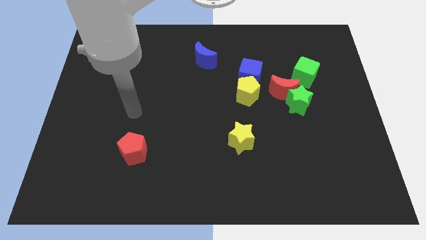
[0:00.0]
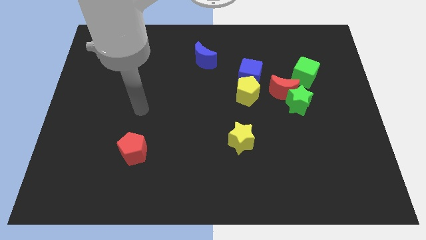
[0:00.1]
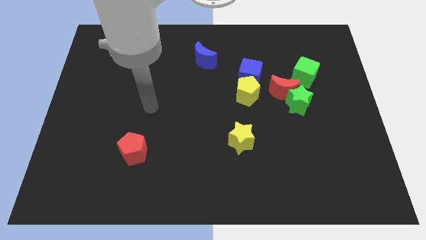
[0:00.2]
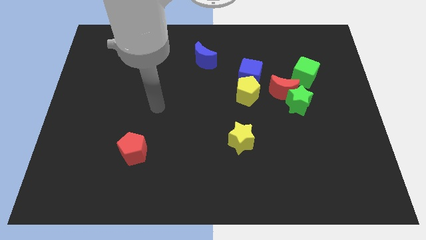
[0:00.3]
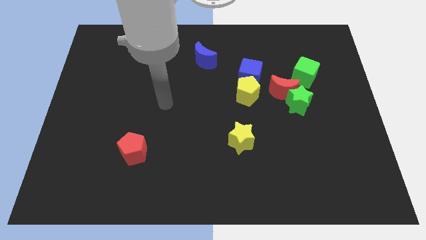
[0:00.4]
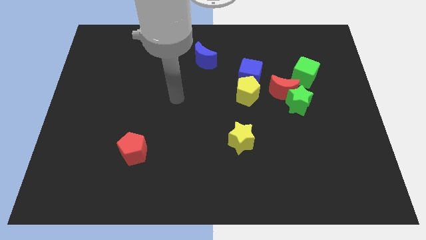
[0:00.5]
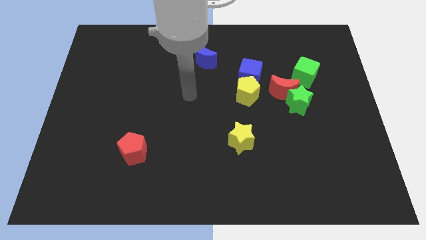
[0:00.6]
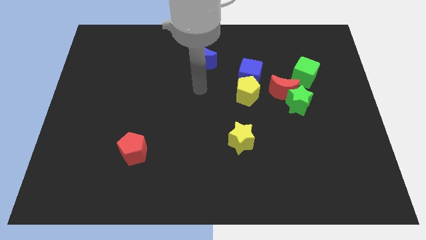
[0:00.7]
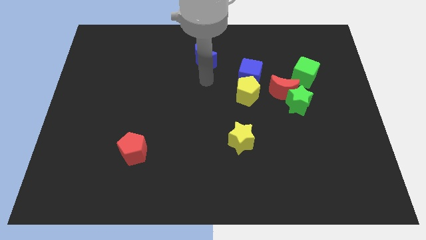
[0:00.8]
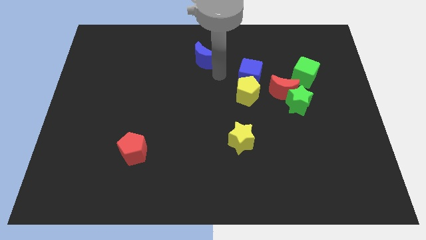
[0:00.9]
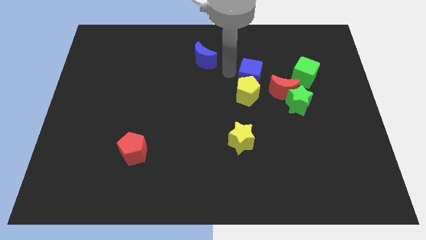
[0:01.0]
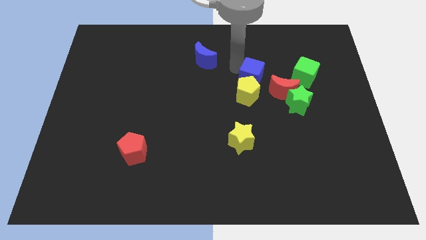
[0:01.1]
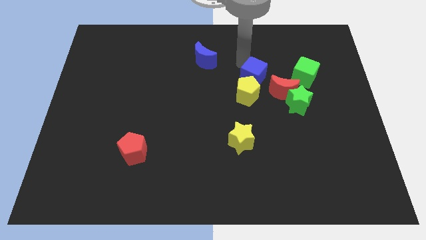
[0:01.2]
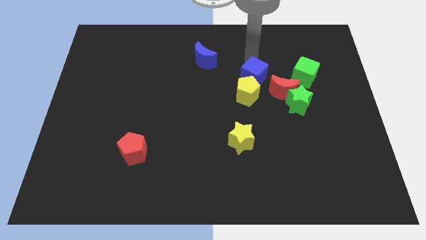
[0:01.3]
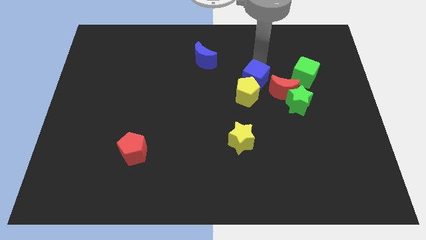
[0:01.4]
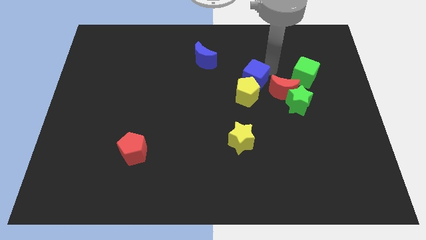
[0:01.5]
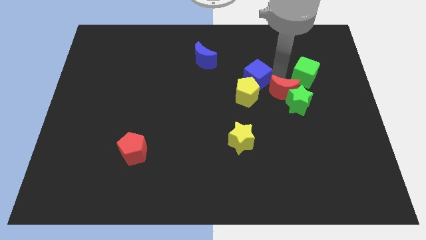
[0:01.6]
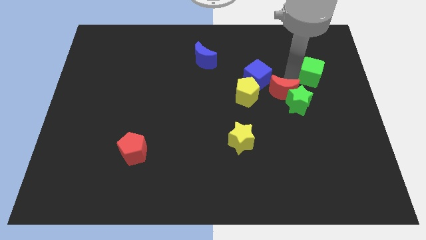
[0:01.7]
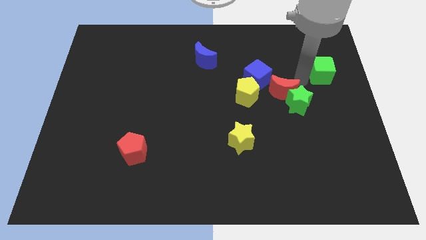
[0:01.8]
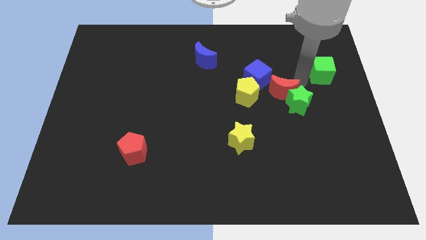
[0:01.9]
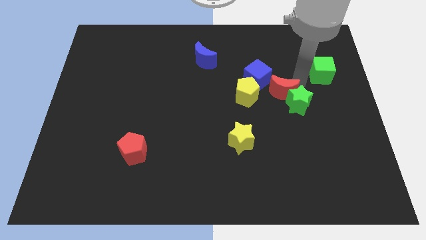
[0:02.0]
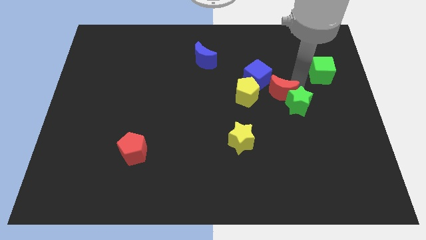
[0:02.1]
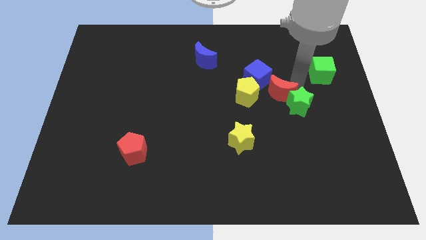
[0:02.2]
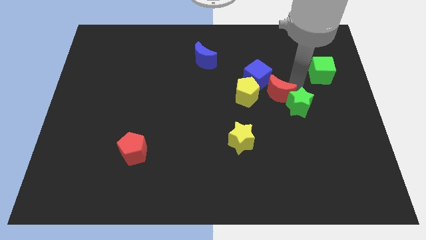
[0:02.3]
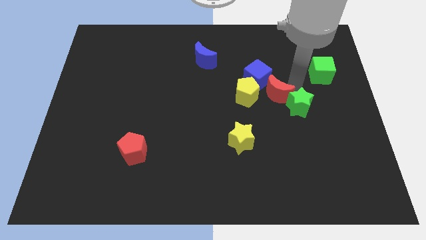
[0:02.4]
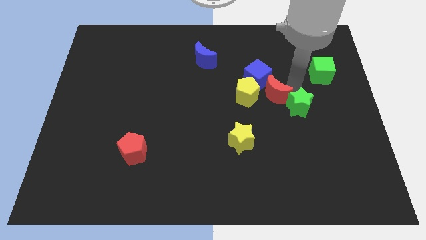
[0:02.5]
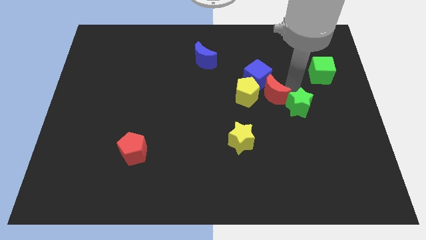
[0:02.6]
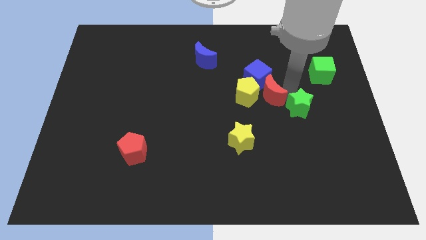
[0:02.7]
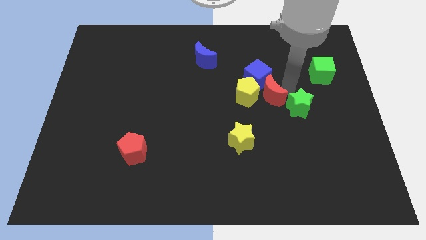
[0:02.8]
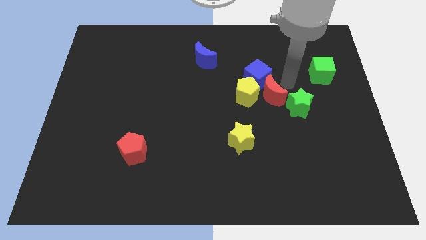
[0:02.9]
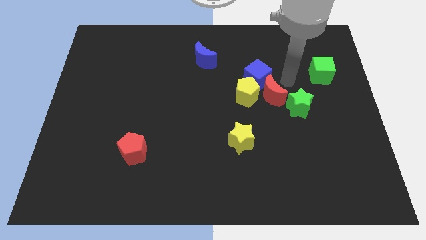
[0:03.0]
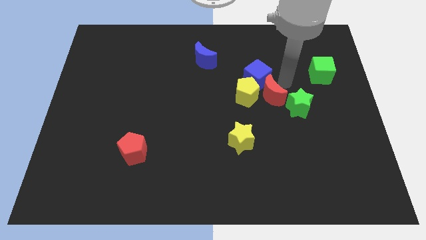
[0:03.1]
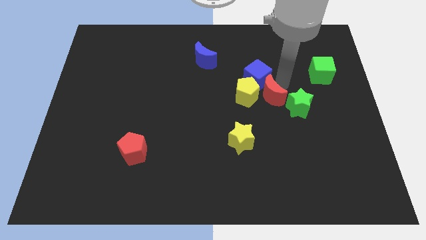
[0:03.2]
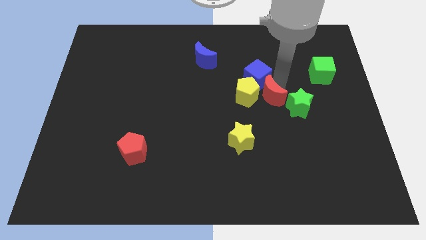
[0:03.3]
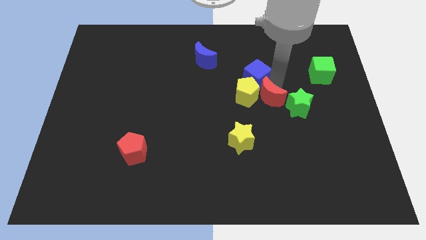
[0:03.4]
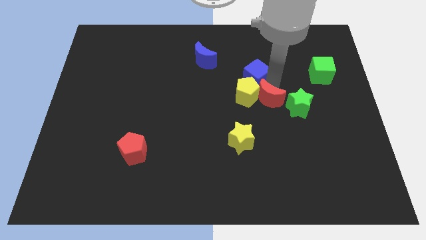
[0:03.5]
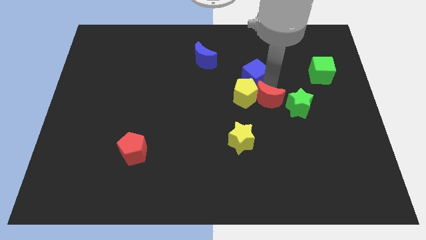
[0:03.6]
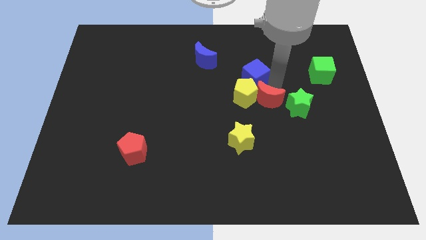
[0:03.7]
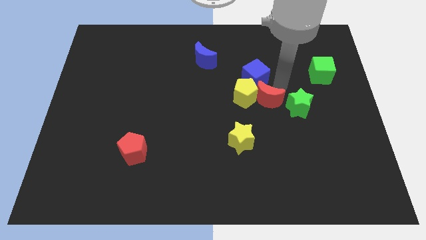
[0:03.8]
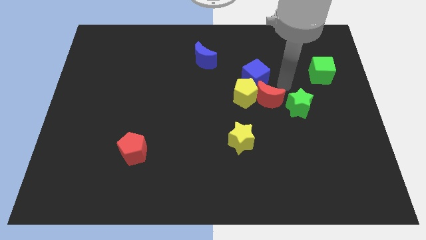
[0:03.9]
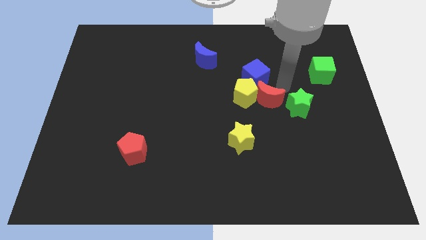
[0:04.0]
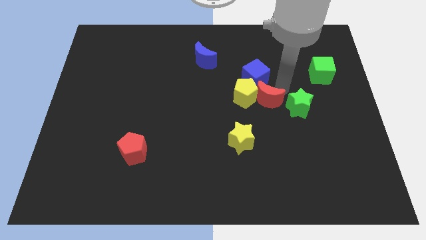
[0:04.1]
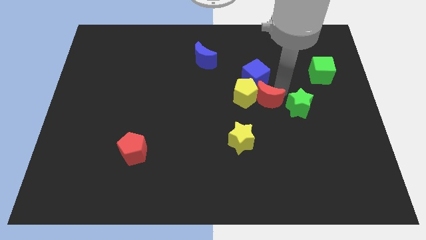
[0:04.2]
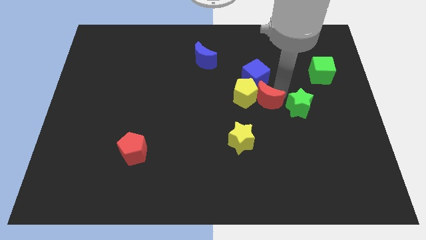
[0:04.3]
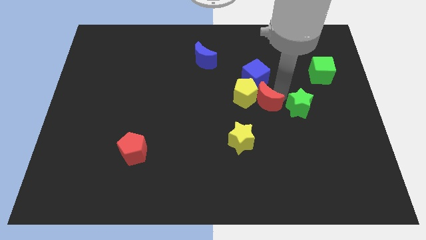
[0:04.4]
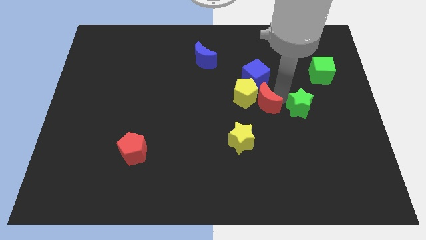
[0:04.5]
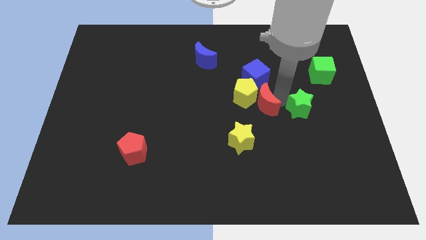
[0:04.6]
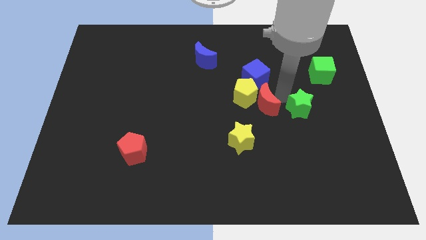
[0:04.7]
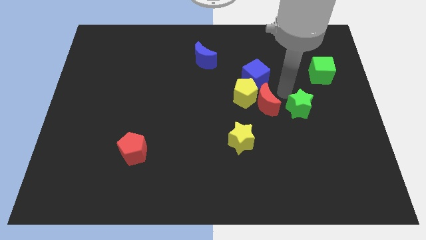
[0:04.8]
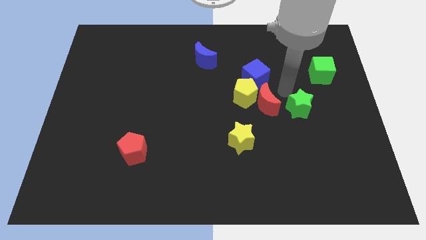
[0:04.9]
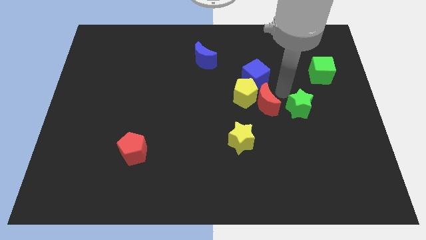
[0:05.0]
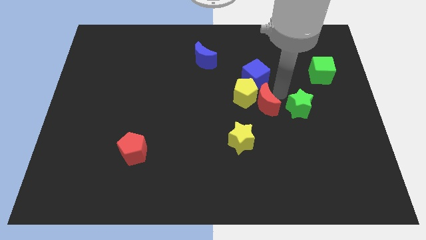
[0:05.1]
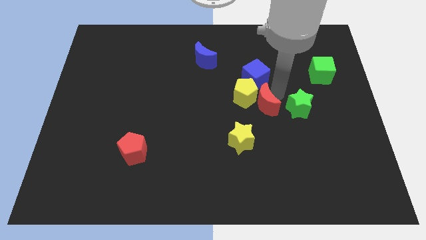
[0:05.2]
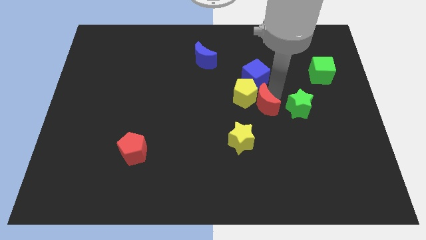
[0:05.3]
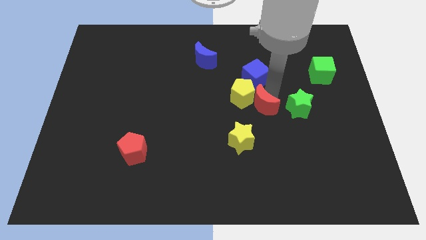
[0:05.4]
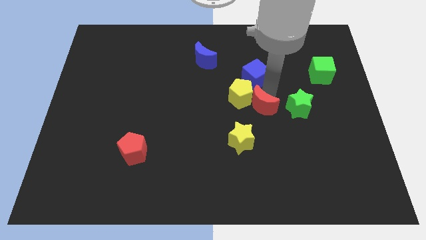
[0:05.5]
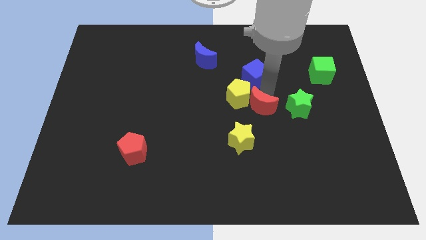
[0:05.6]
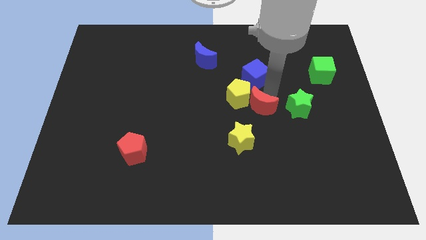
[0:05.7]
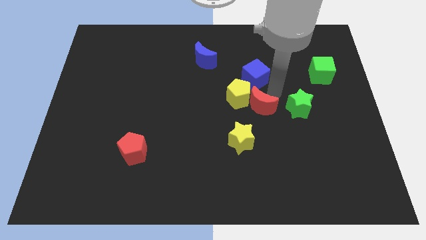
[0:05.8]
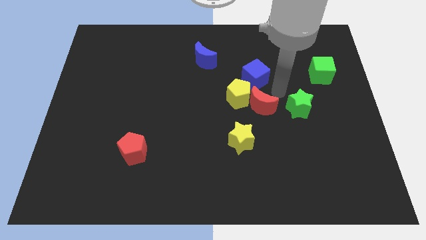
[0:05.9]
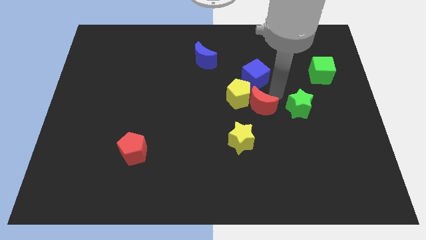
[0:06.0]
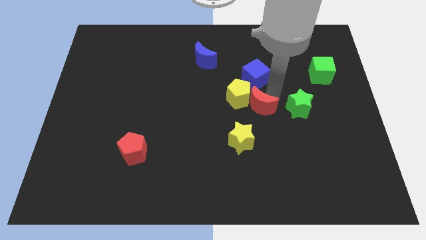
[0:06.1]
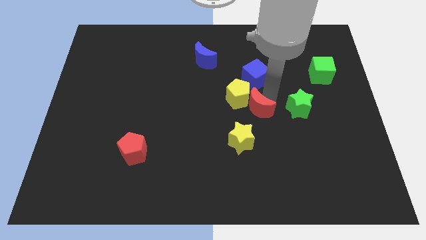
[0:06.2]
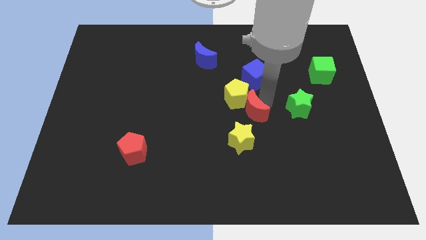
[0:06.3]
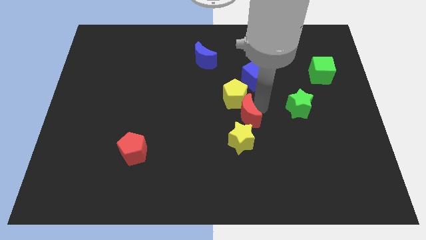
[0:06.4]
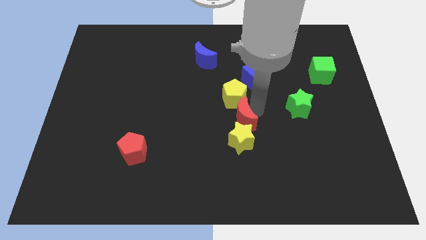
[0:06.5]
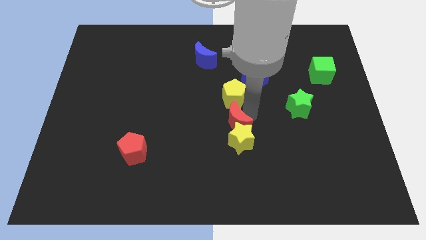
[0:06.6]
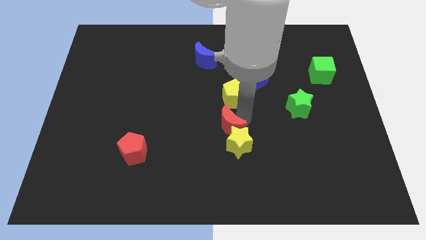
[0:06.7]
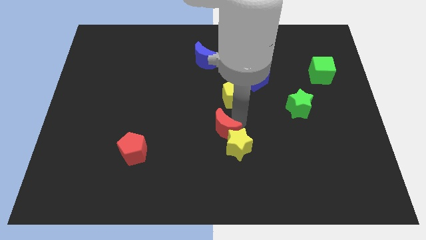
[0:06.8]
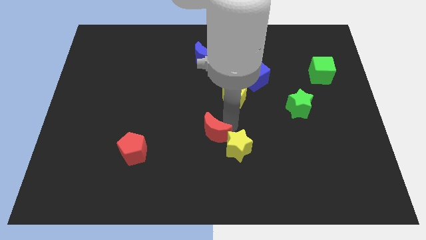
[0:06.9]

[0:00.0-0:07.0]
move the red moon down and then left

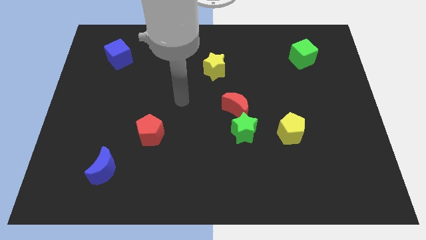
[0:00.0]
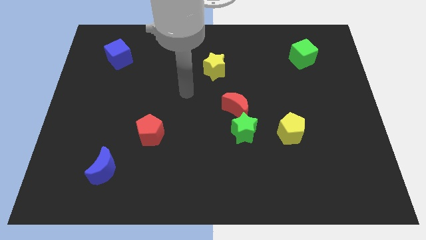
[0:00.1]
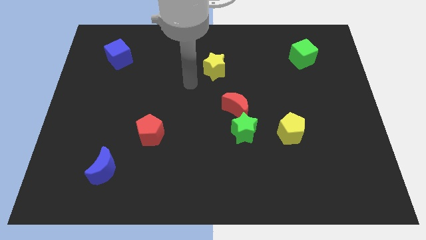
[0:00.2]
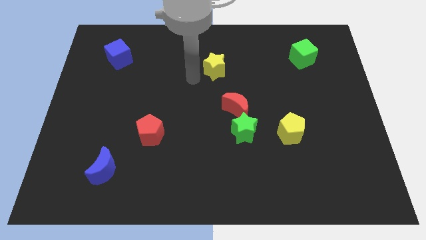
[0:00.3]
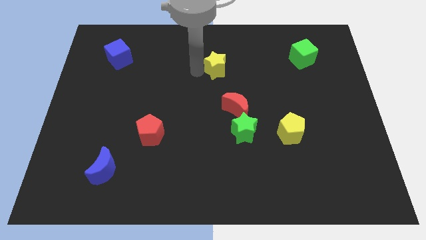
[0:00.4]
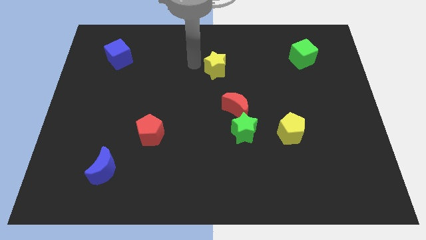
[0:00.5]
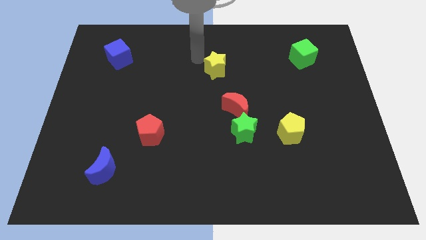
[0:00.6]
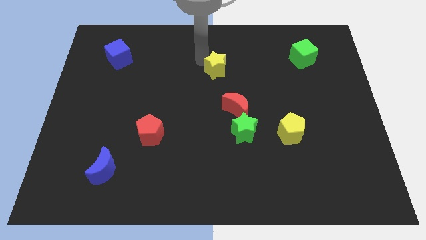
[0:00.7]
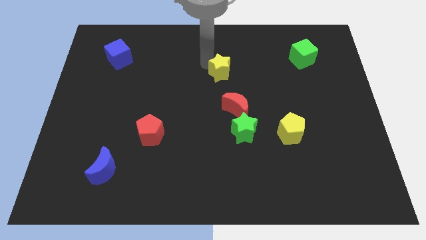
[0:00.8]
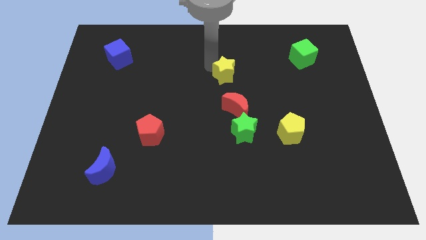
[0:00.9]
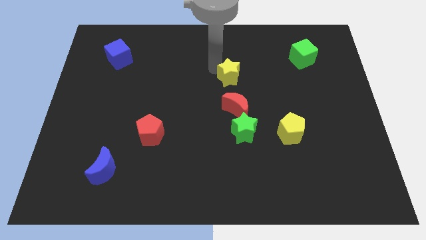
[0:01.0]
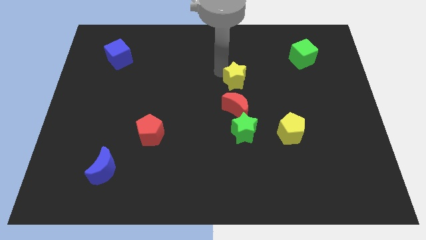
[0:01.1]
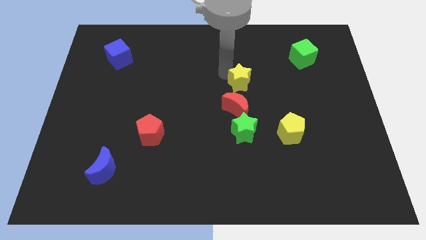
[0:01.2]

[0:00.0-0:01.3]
push the yellow star a bit diagonally downwards and right
